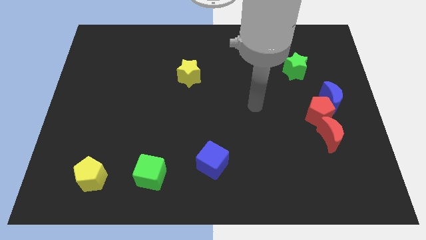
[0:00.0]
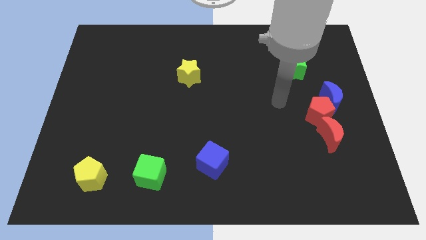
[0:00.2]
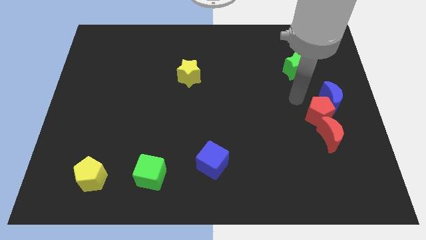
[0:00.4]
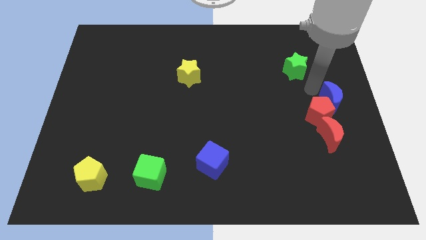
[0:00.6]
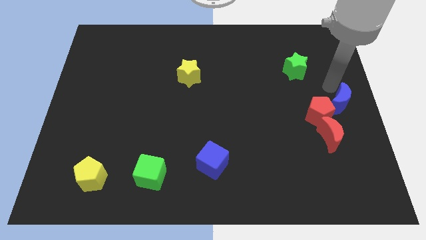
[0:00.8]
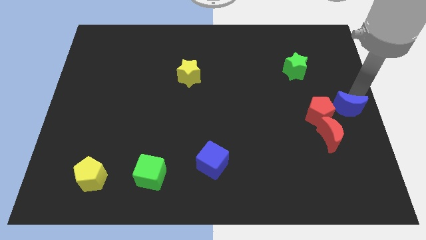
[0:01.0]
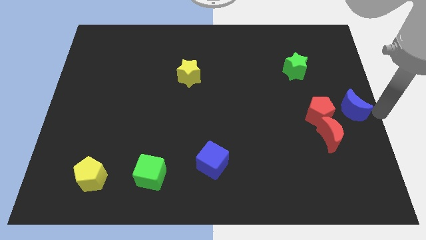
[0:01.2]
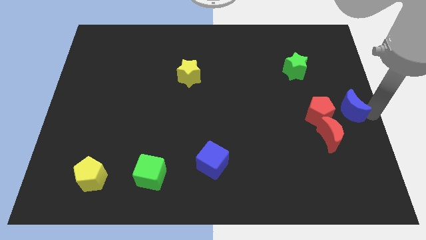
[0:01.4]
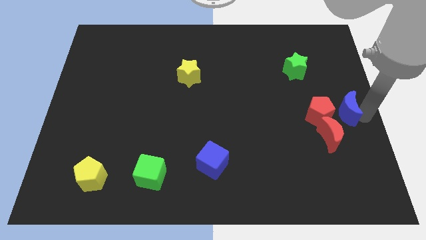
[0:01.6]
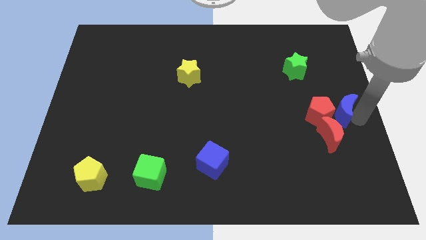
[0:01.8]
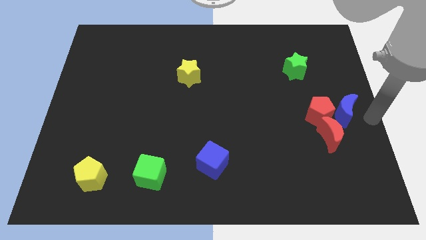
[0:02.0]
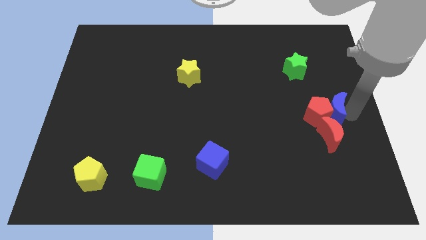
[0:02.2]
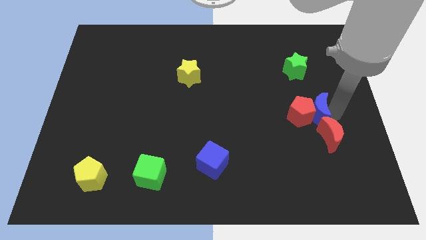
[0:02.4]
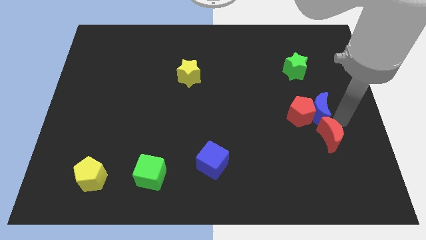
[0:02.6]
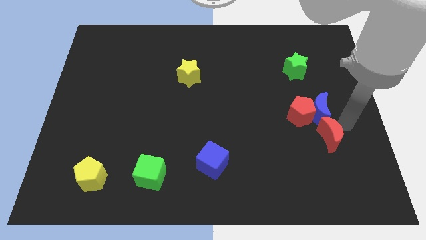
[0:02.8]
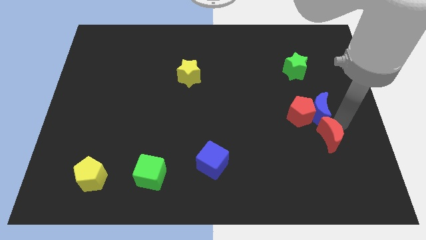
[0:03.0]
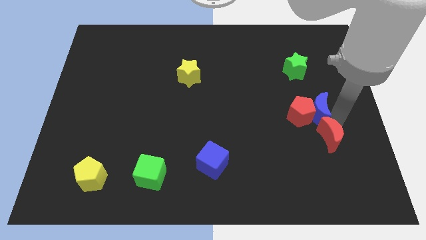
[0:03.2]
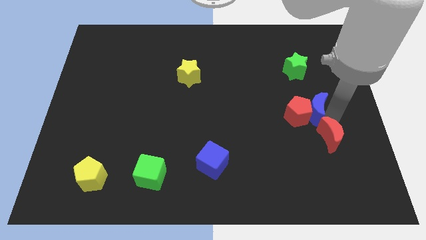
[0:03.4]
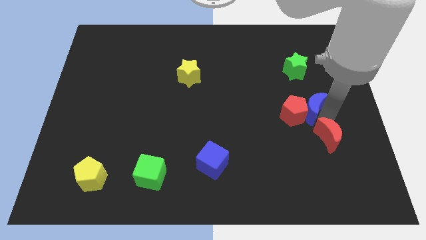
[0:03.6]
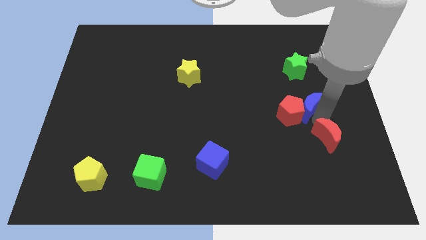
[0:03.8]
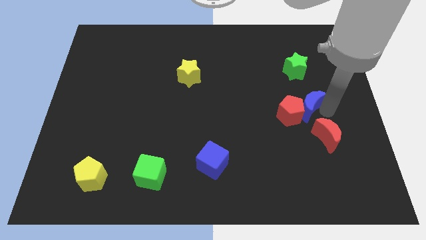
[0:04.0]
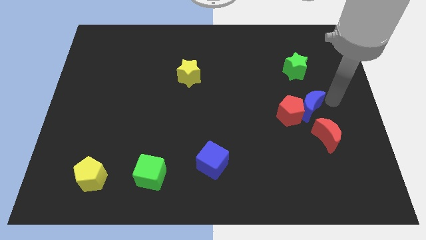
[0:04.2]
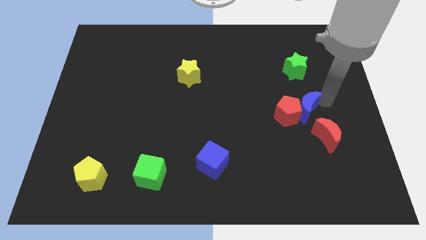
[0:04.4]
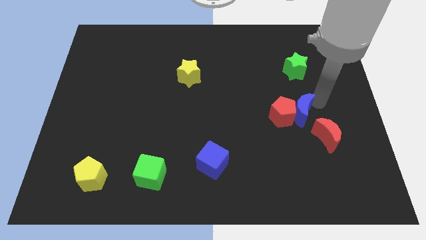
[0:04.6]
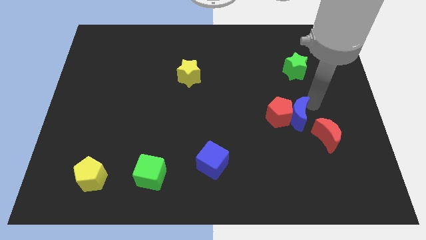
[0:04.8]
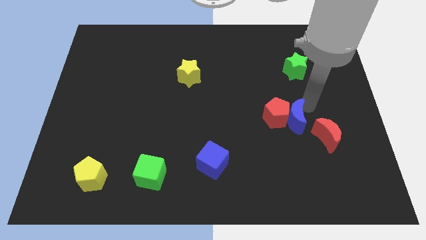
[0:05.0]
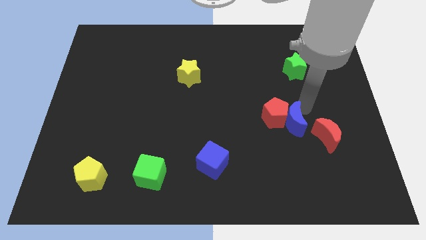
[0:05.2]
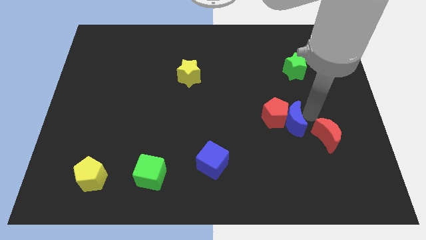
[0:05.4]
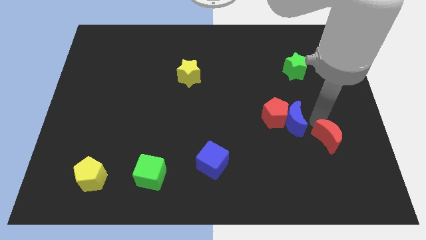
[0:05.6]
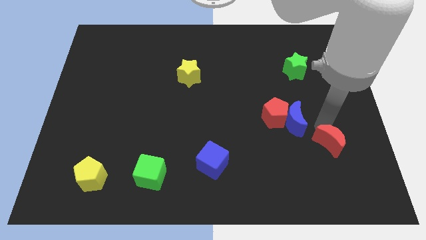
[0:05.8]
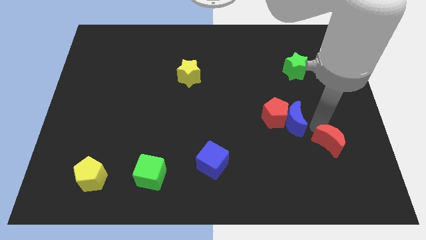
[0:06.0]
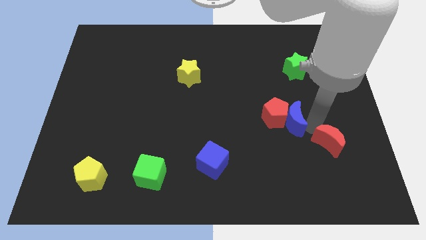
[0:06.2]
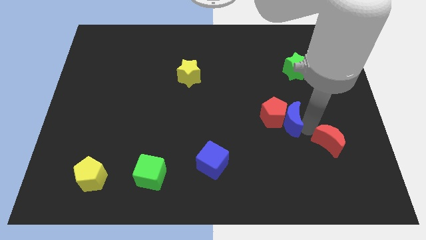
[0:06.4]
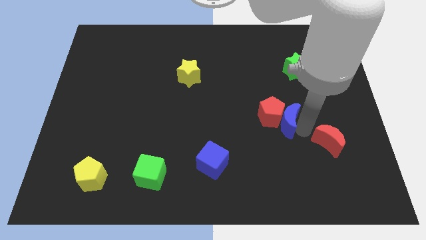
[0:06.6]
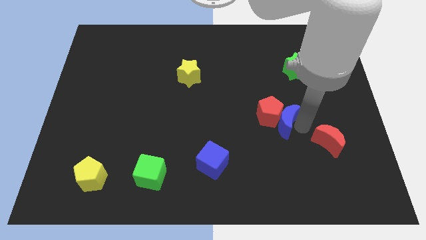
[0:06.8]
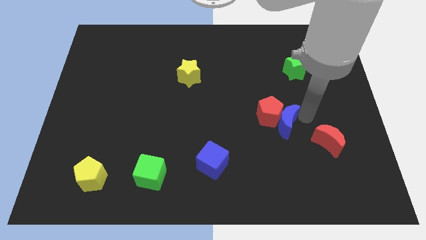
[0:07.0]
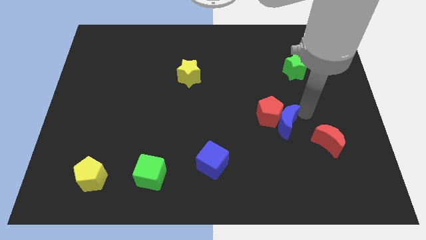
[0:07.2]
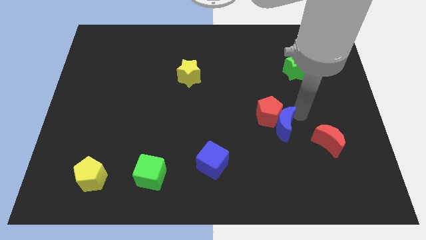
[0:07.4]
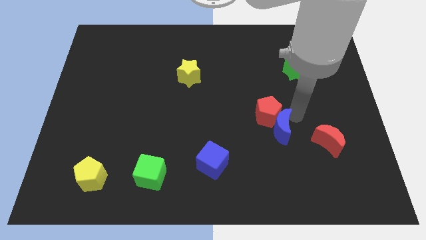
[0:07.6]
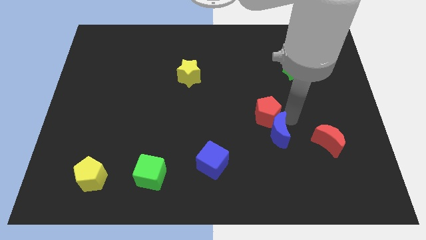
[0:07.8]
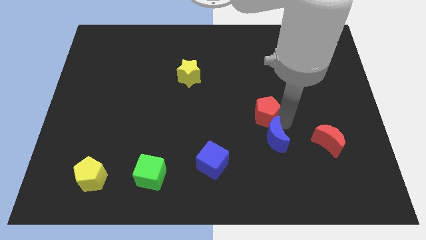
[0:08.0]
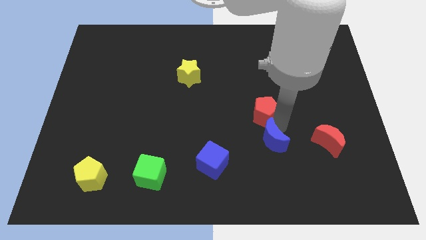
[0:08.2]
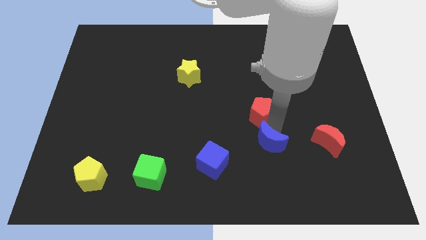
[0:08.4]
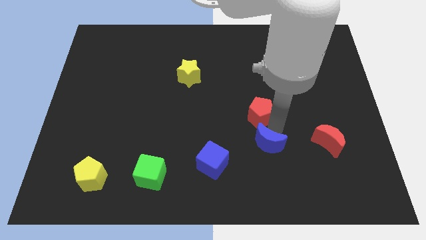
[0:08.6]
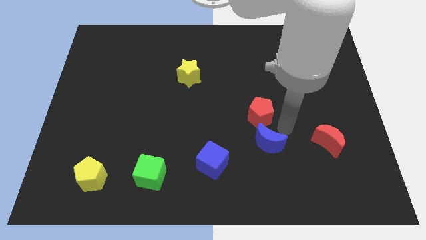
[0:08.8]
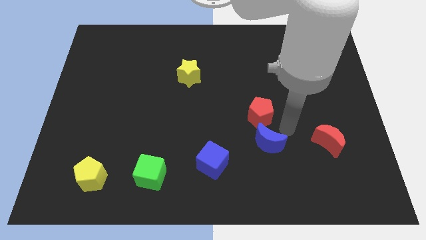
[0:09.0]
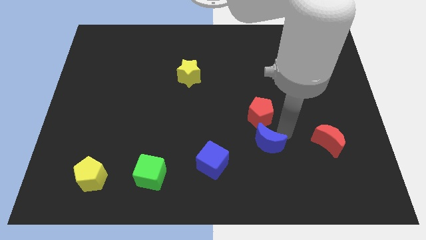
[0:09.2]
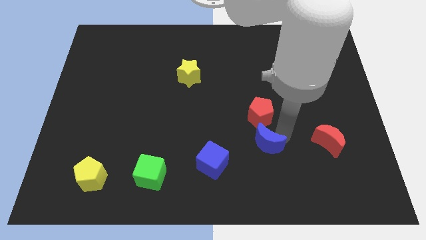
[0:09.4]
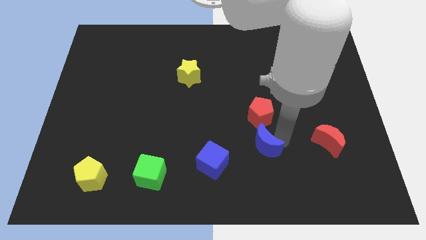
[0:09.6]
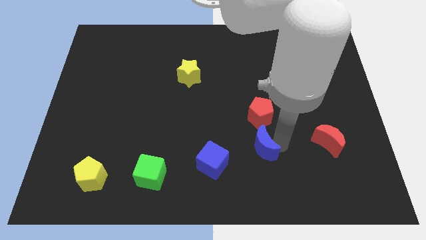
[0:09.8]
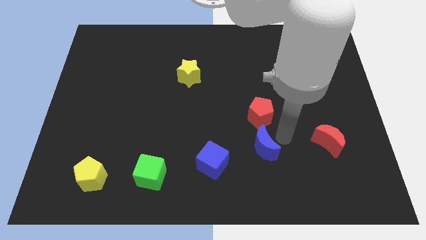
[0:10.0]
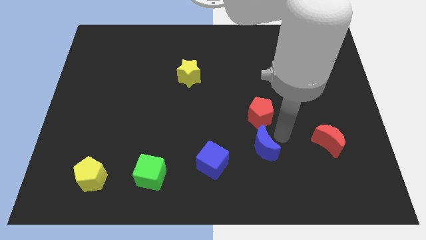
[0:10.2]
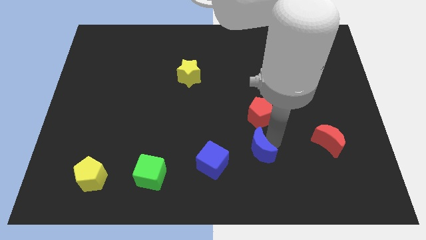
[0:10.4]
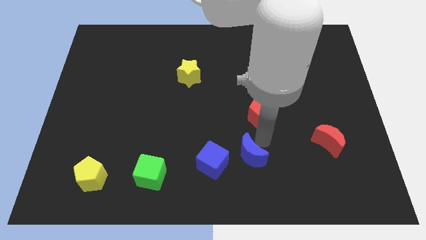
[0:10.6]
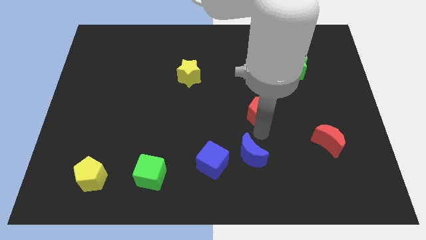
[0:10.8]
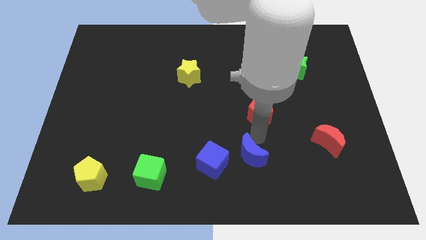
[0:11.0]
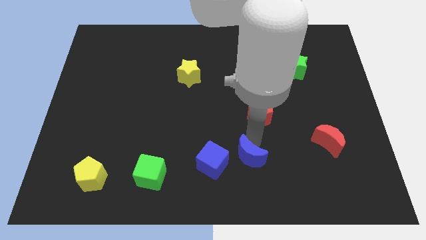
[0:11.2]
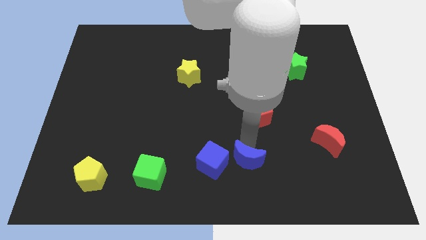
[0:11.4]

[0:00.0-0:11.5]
slide the blue moon to the bottom side

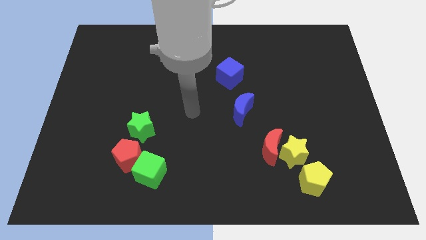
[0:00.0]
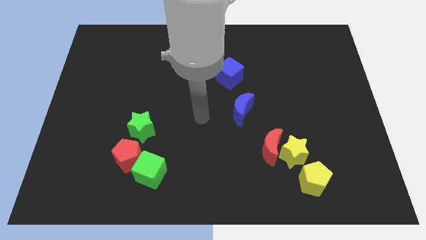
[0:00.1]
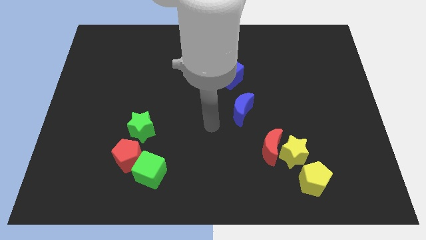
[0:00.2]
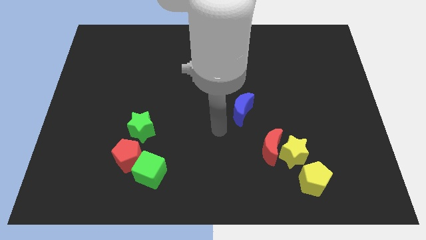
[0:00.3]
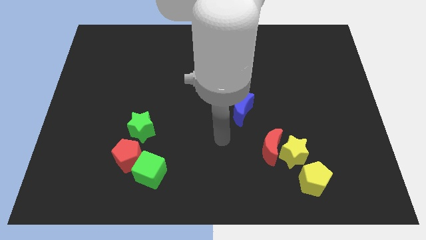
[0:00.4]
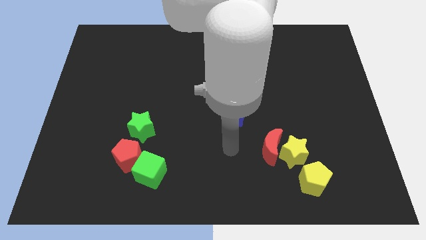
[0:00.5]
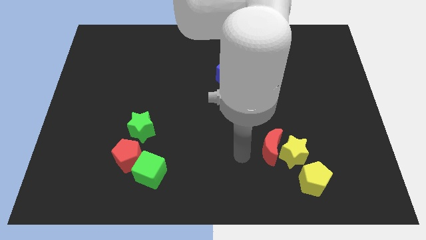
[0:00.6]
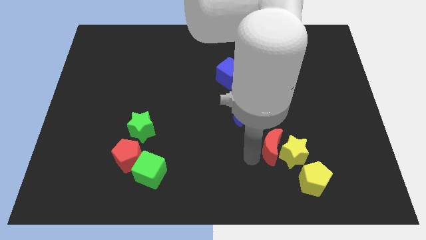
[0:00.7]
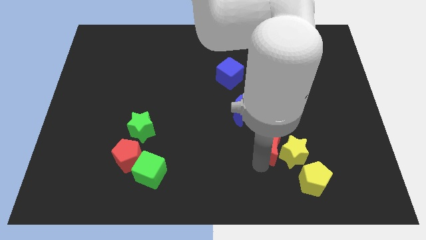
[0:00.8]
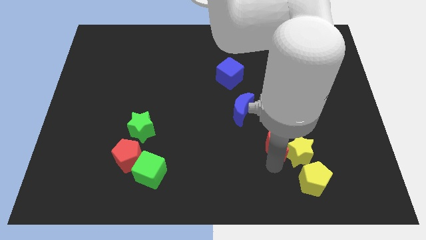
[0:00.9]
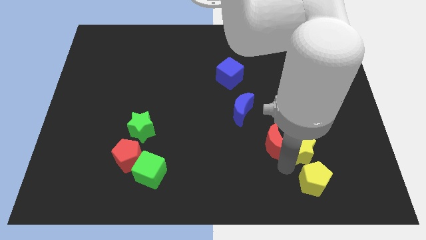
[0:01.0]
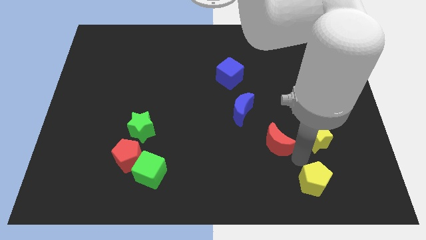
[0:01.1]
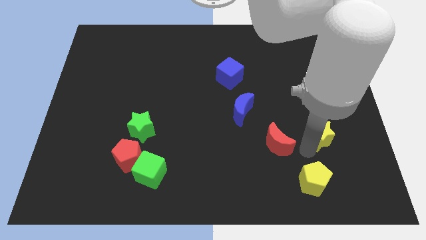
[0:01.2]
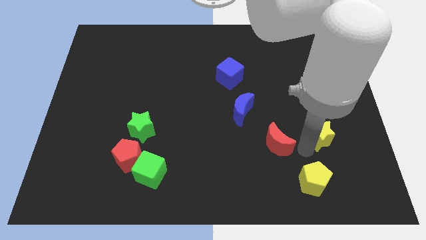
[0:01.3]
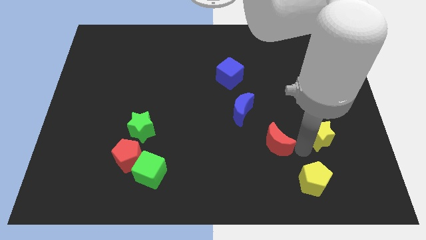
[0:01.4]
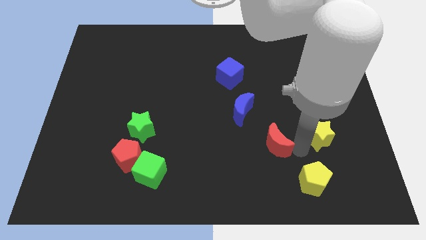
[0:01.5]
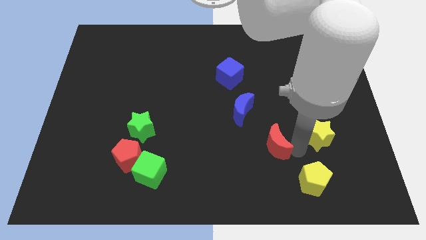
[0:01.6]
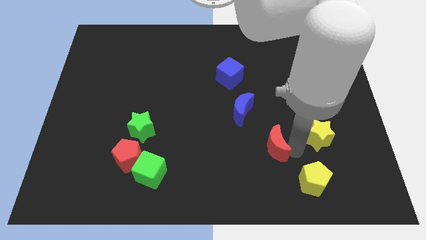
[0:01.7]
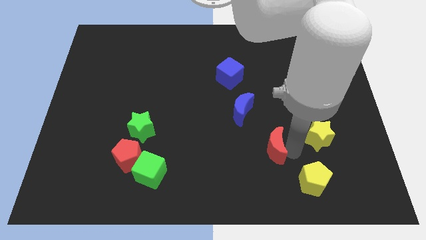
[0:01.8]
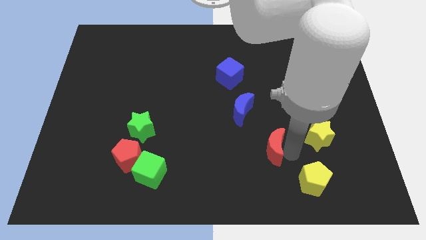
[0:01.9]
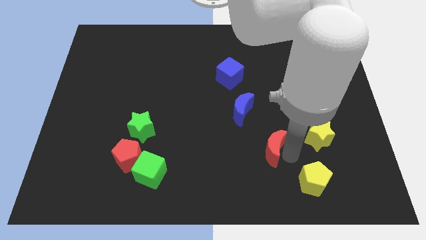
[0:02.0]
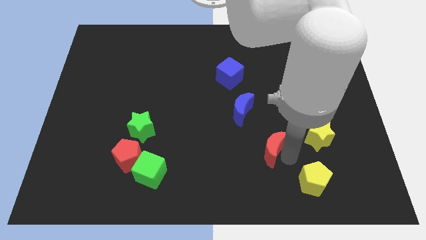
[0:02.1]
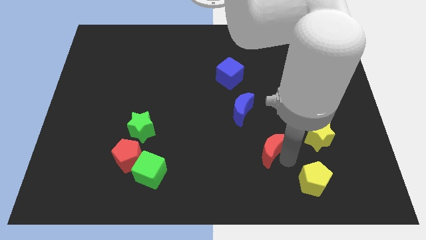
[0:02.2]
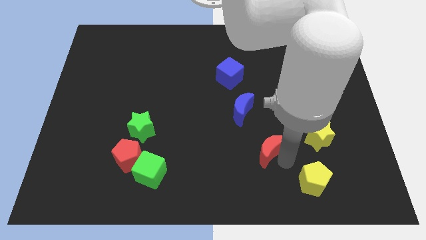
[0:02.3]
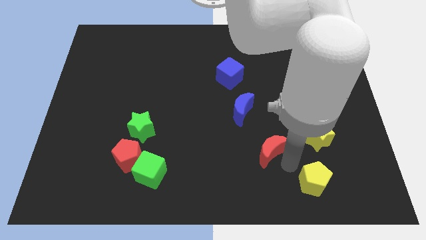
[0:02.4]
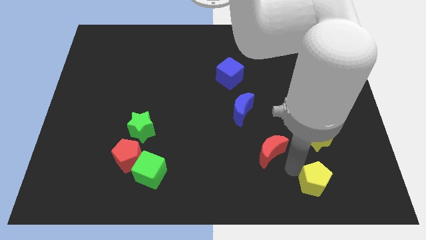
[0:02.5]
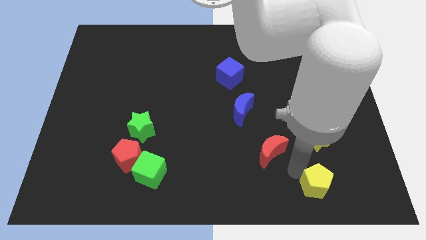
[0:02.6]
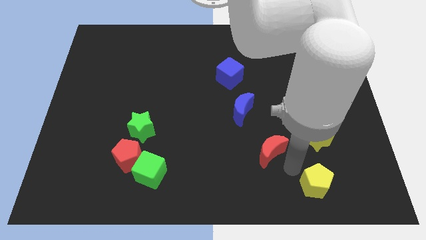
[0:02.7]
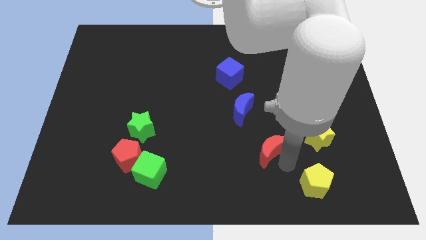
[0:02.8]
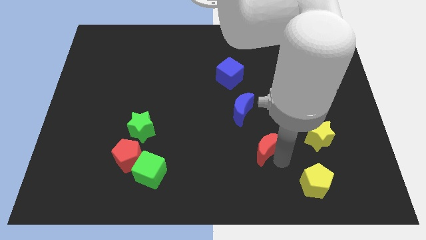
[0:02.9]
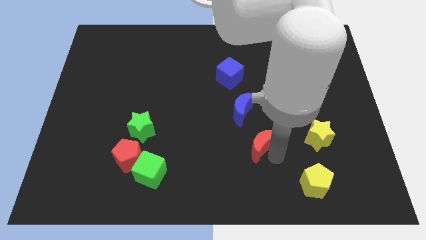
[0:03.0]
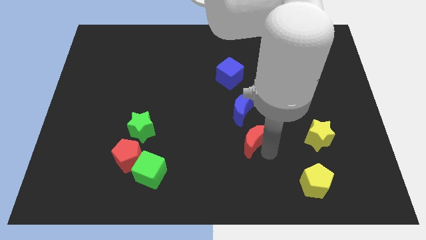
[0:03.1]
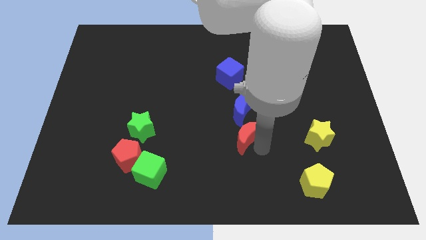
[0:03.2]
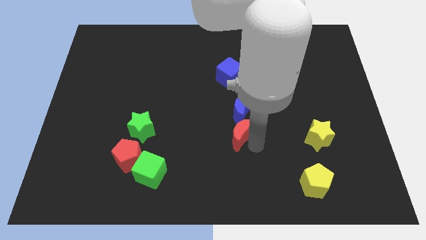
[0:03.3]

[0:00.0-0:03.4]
push the red moon to the center of the board
